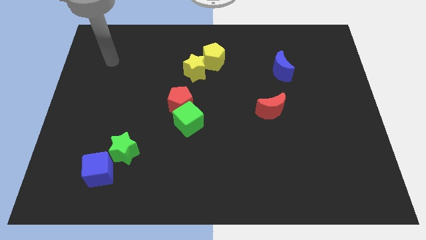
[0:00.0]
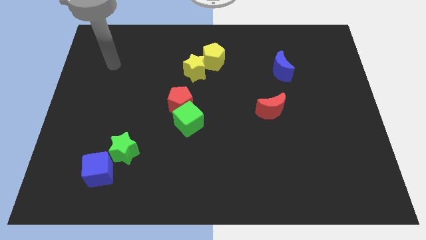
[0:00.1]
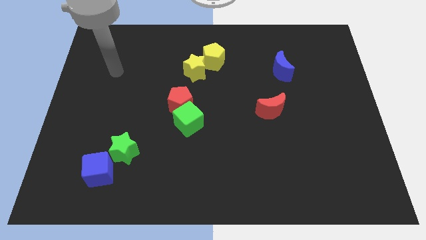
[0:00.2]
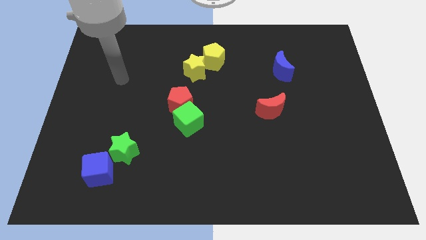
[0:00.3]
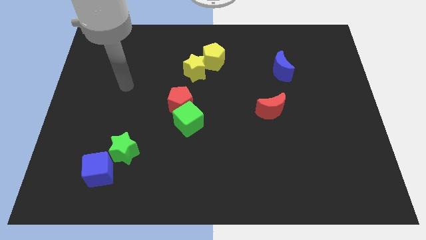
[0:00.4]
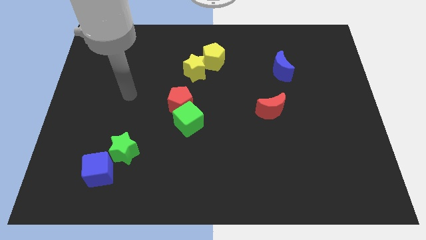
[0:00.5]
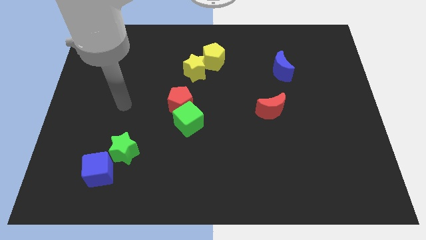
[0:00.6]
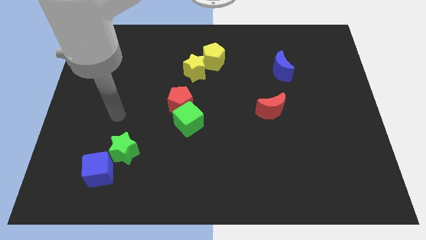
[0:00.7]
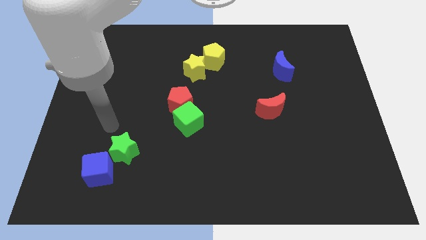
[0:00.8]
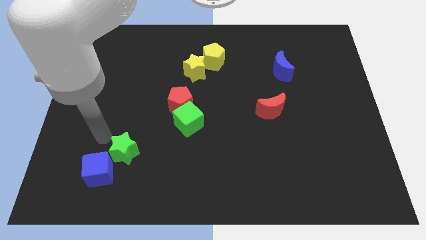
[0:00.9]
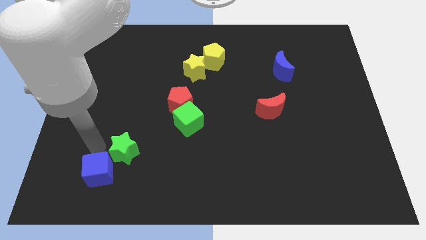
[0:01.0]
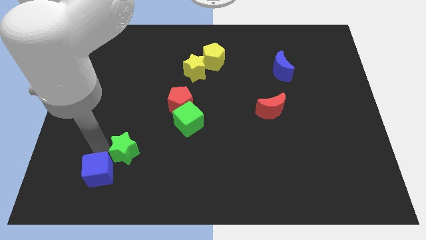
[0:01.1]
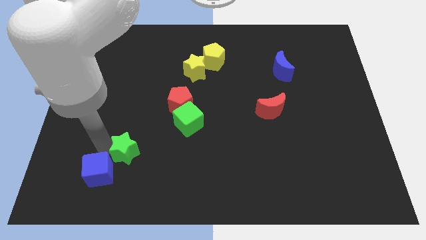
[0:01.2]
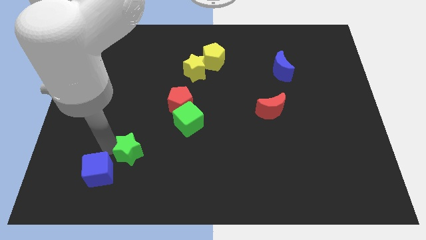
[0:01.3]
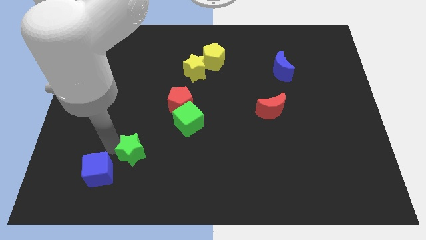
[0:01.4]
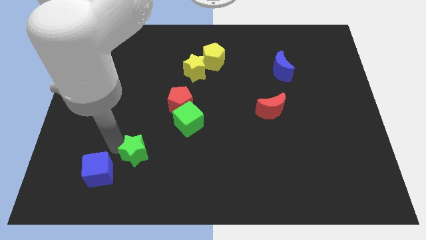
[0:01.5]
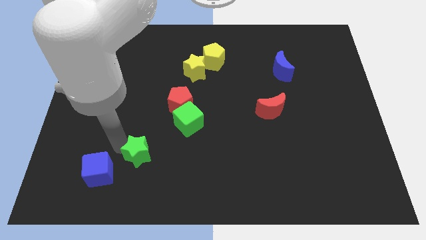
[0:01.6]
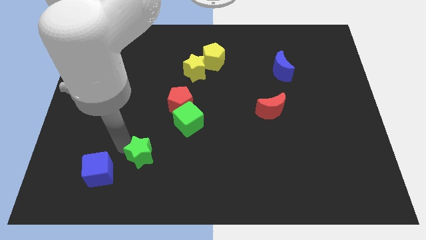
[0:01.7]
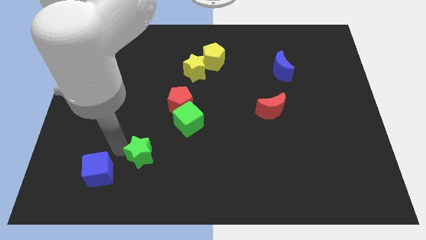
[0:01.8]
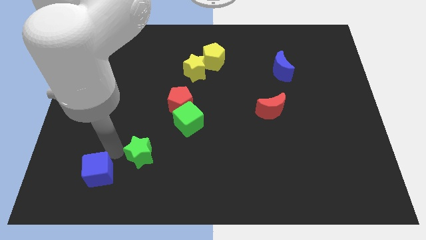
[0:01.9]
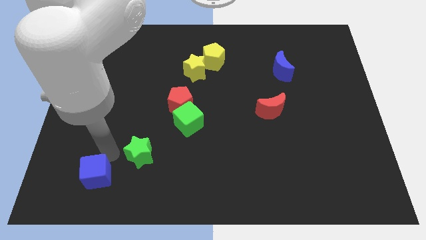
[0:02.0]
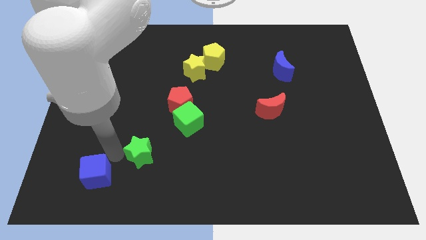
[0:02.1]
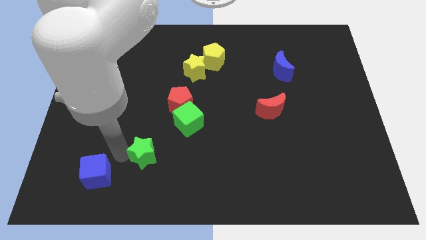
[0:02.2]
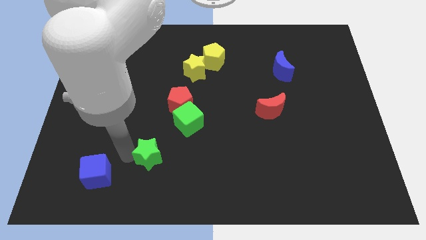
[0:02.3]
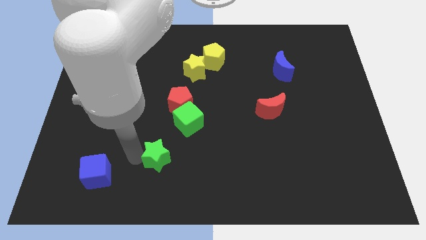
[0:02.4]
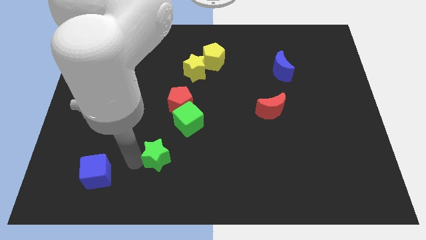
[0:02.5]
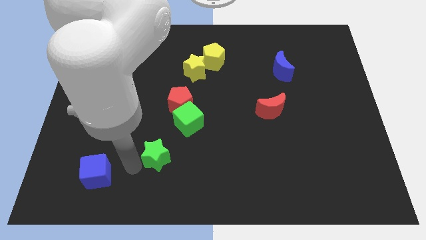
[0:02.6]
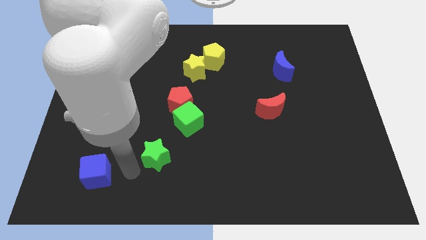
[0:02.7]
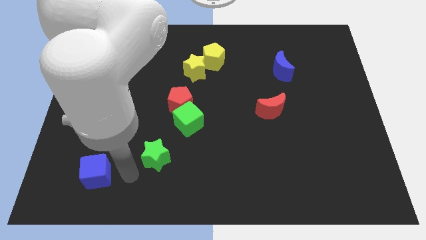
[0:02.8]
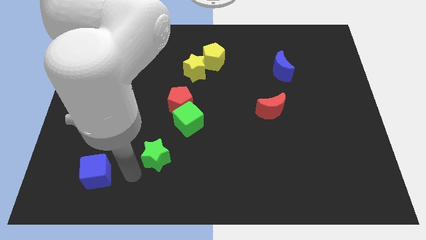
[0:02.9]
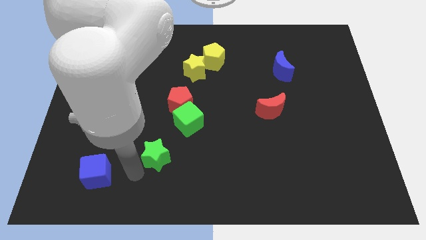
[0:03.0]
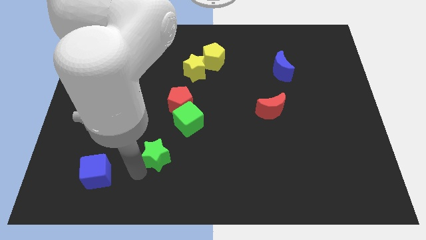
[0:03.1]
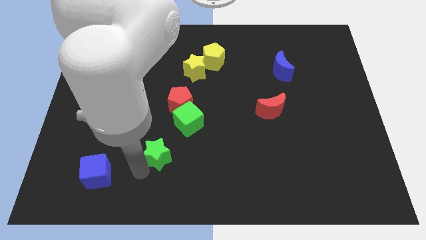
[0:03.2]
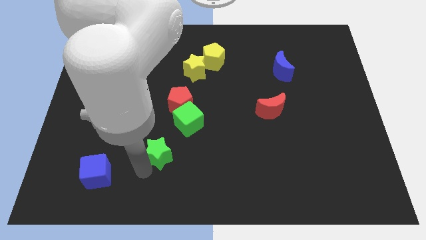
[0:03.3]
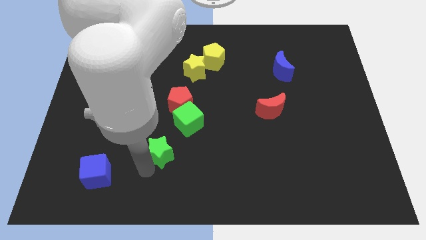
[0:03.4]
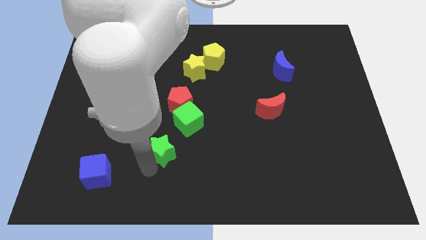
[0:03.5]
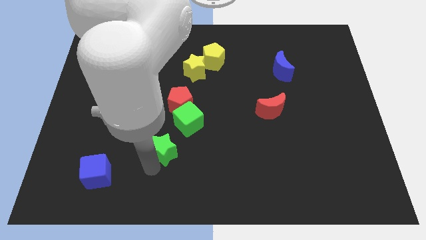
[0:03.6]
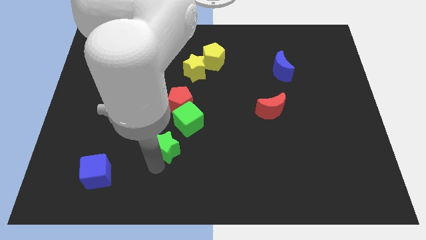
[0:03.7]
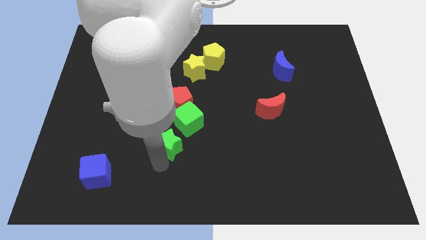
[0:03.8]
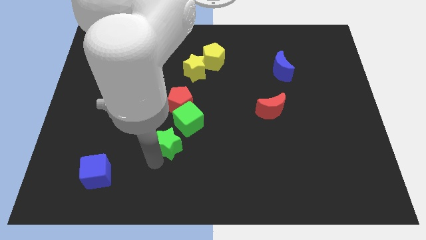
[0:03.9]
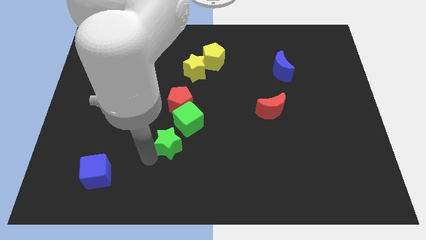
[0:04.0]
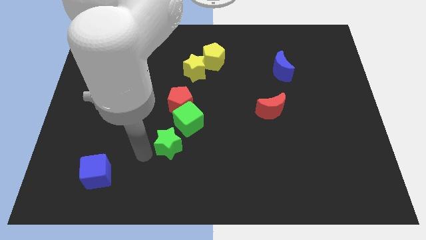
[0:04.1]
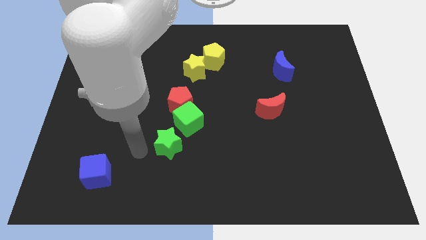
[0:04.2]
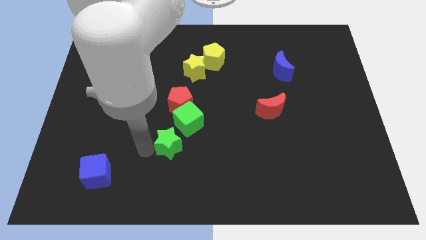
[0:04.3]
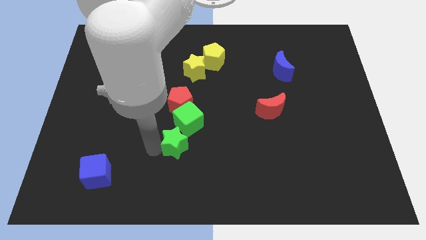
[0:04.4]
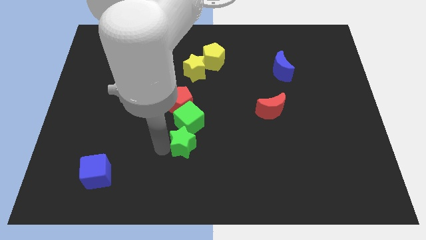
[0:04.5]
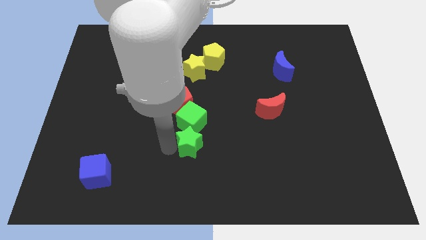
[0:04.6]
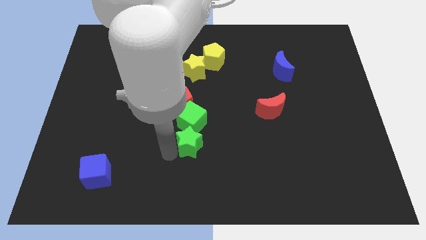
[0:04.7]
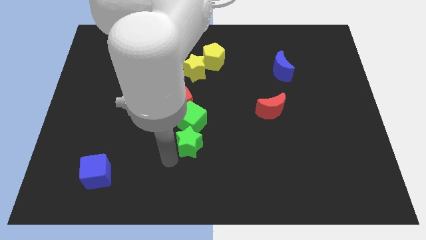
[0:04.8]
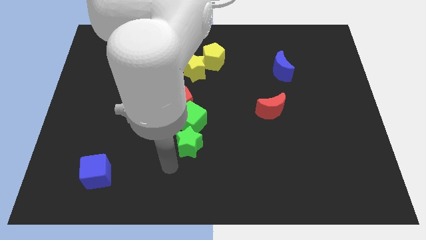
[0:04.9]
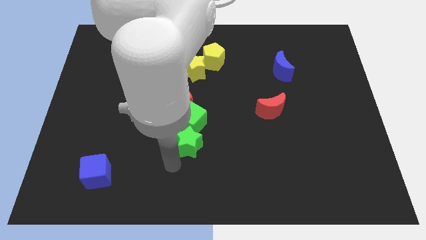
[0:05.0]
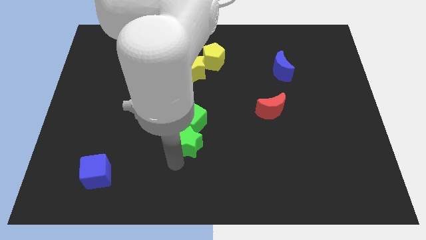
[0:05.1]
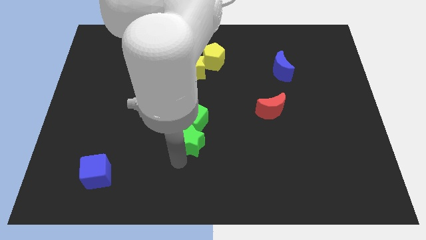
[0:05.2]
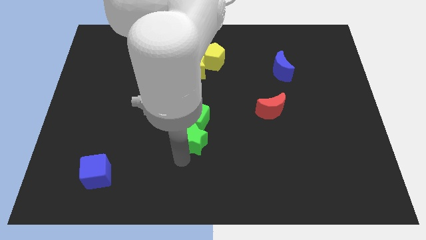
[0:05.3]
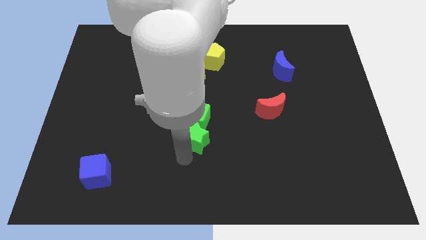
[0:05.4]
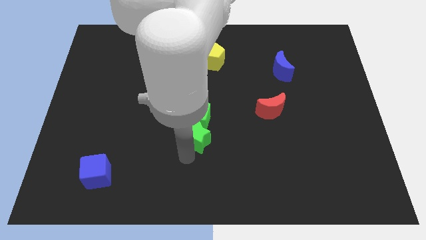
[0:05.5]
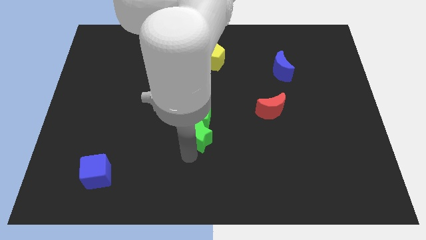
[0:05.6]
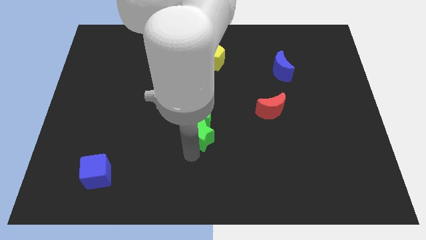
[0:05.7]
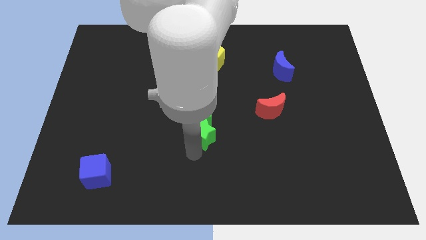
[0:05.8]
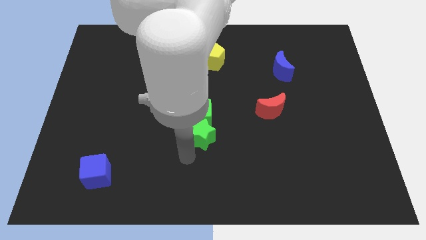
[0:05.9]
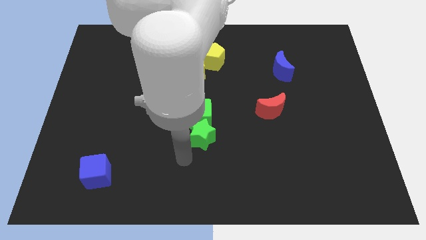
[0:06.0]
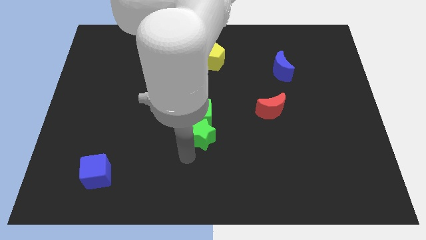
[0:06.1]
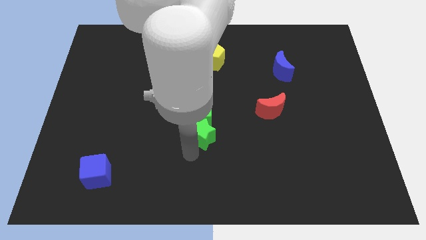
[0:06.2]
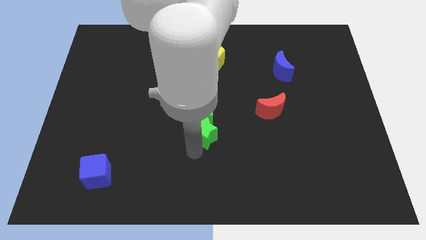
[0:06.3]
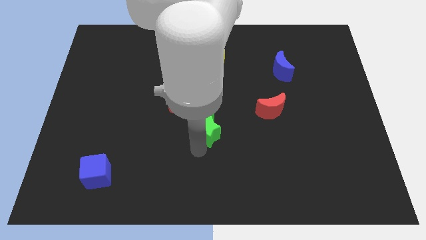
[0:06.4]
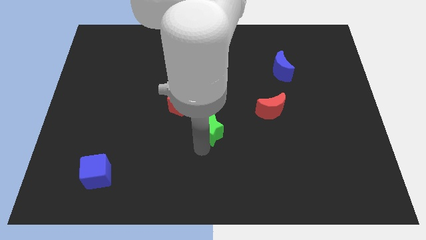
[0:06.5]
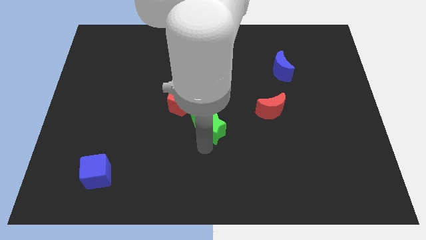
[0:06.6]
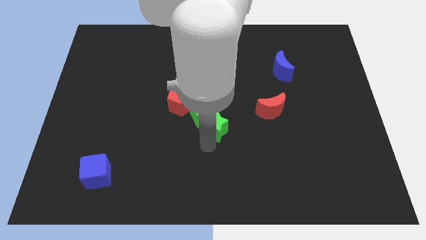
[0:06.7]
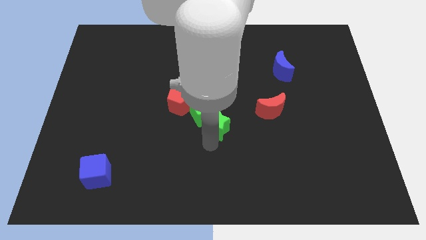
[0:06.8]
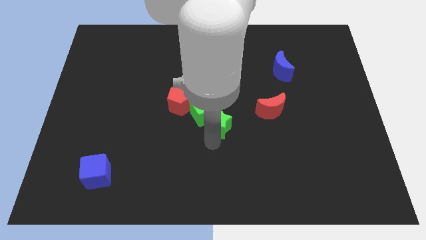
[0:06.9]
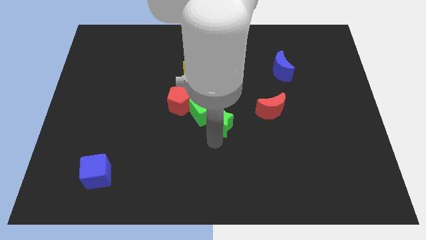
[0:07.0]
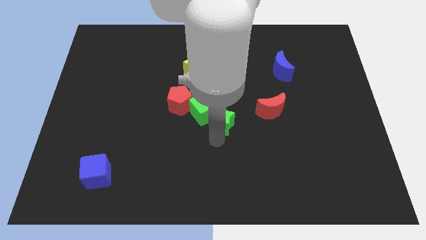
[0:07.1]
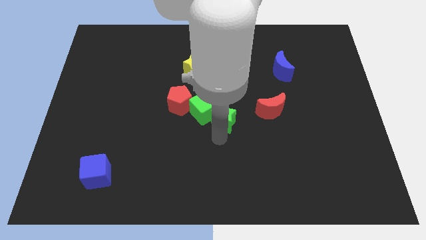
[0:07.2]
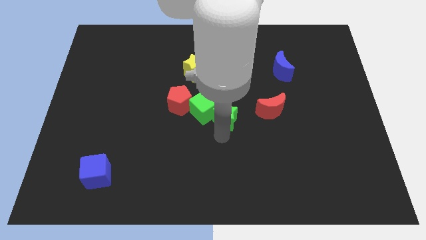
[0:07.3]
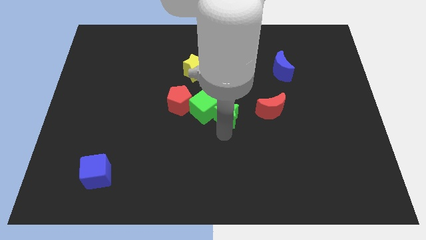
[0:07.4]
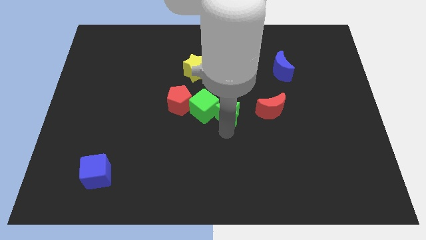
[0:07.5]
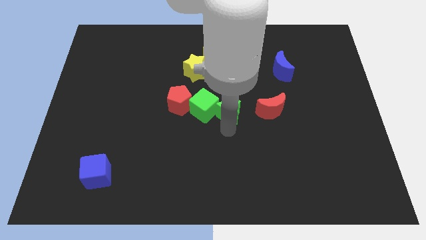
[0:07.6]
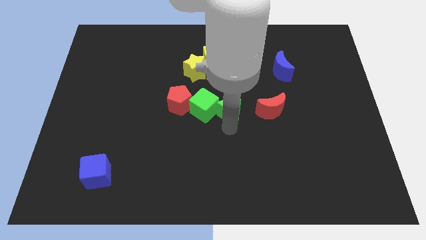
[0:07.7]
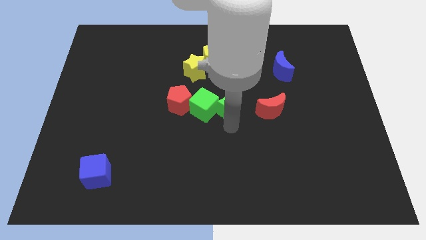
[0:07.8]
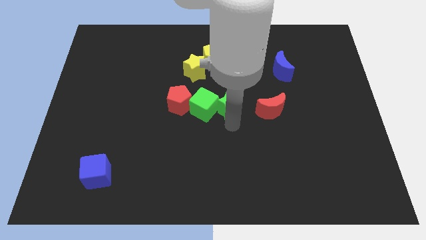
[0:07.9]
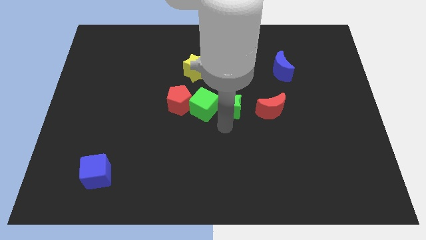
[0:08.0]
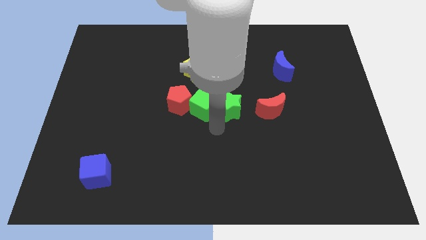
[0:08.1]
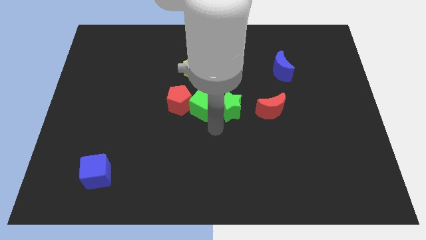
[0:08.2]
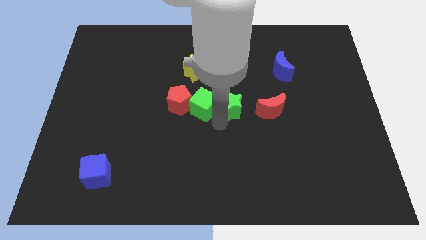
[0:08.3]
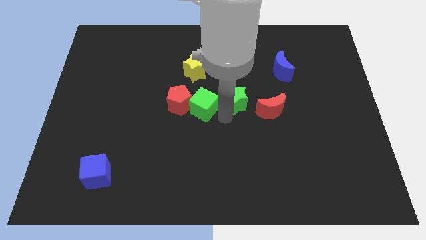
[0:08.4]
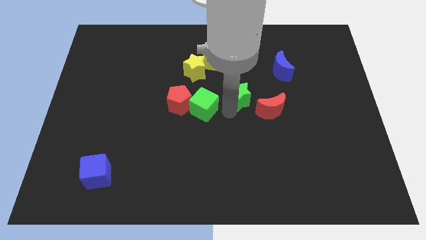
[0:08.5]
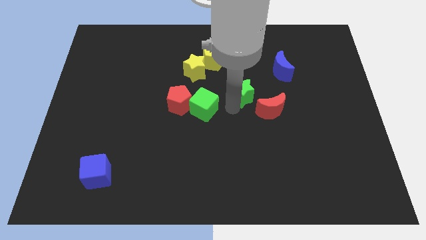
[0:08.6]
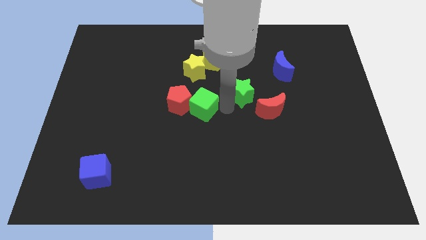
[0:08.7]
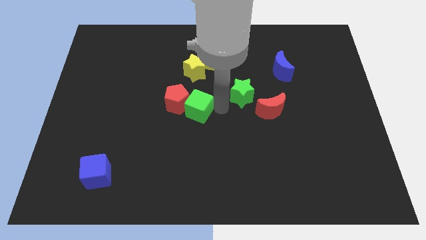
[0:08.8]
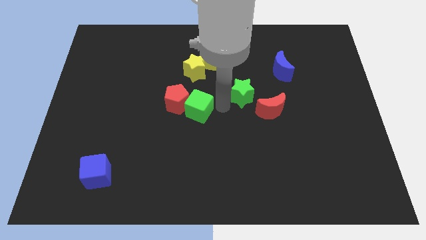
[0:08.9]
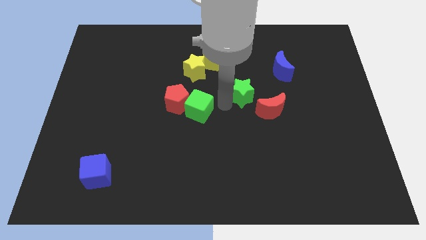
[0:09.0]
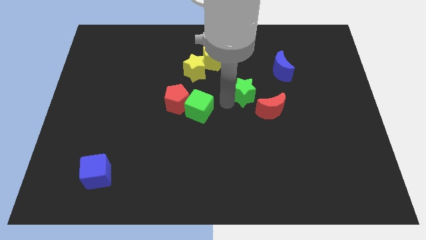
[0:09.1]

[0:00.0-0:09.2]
push the green star to the bottom left side of the blue moon
